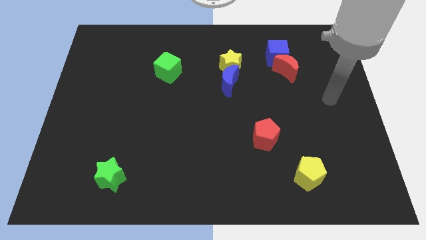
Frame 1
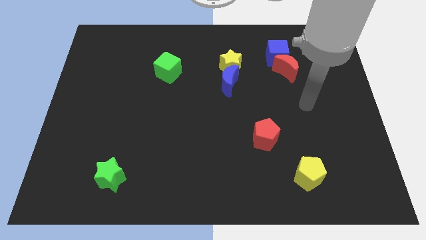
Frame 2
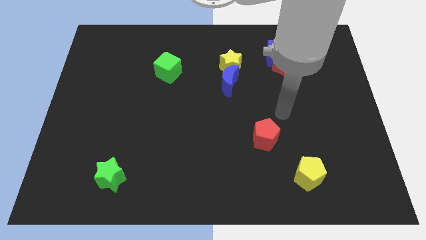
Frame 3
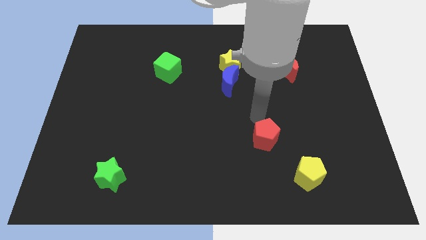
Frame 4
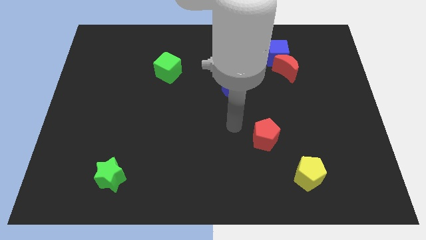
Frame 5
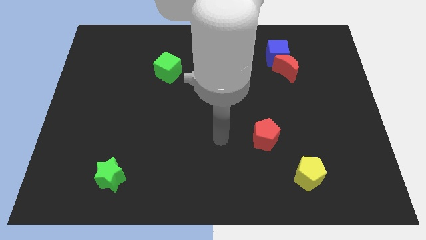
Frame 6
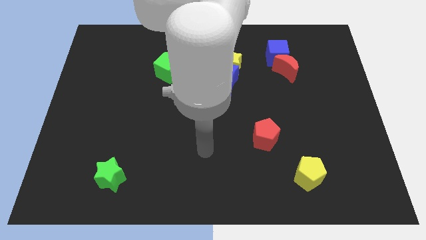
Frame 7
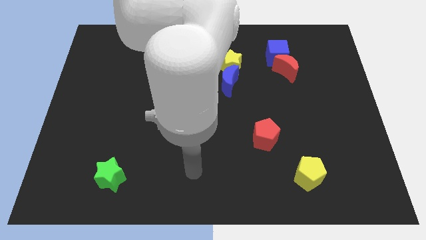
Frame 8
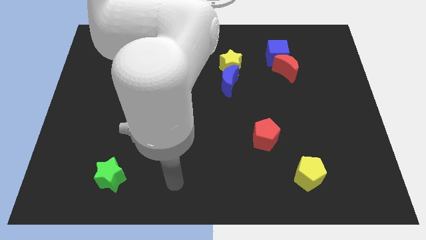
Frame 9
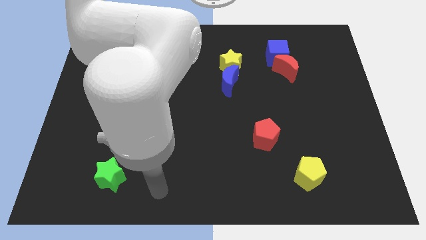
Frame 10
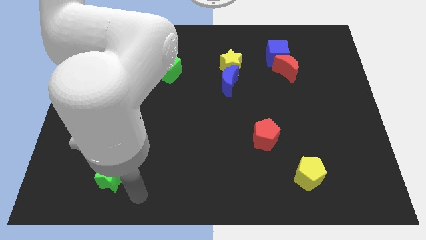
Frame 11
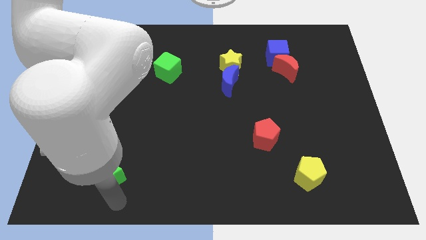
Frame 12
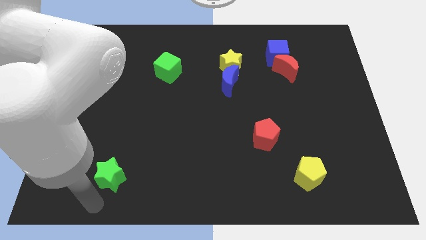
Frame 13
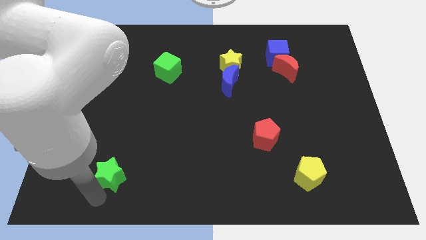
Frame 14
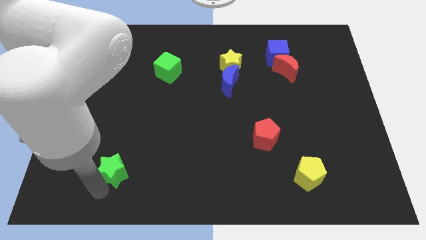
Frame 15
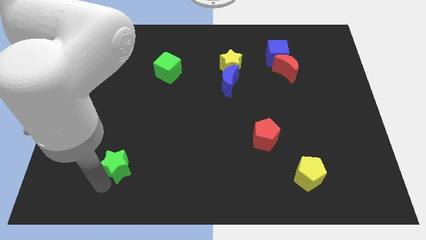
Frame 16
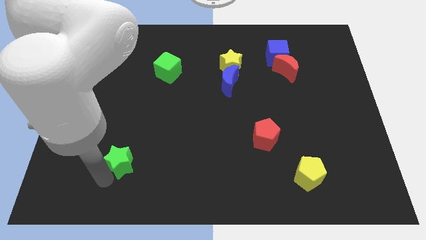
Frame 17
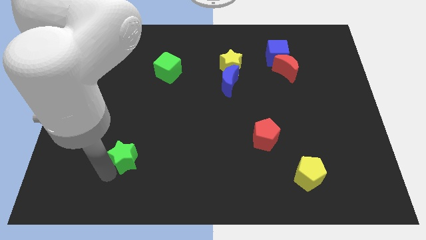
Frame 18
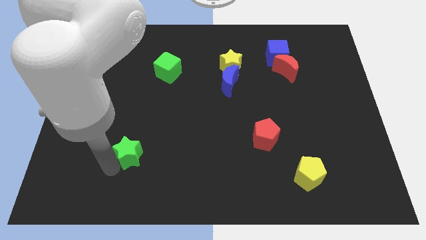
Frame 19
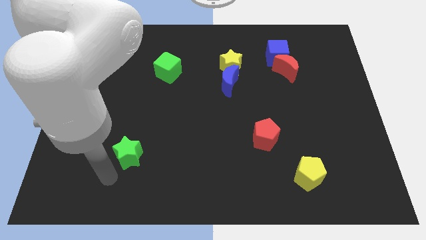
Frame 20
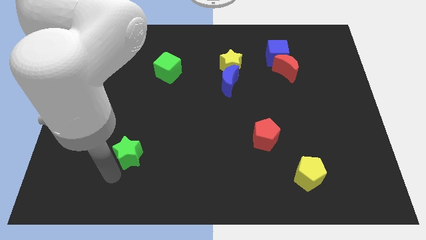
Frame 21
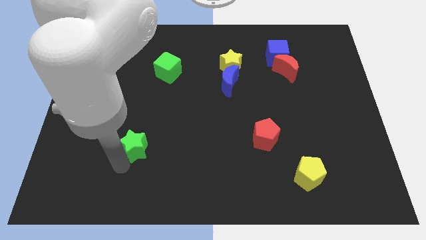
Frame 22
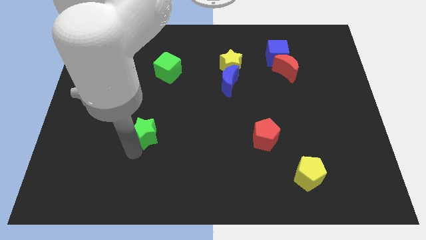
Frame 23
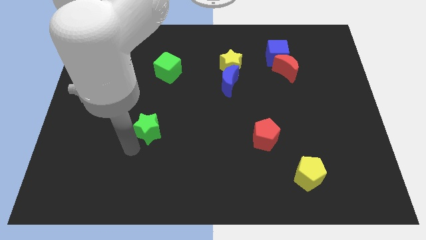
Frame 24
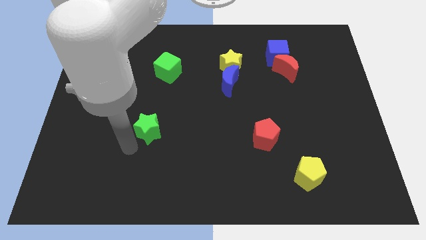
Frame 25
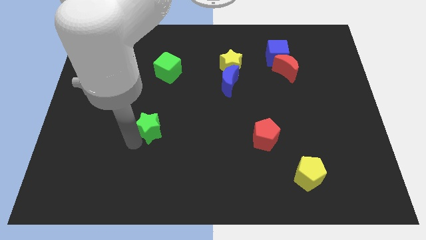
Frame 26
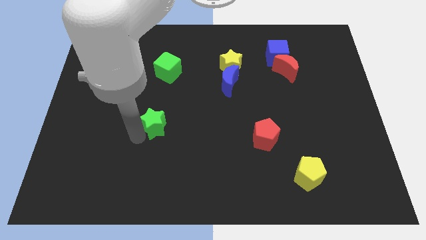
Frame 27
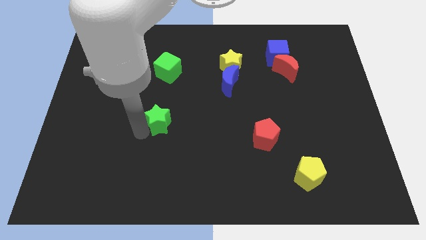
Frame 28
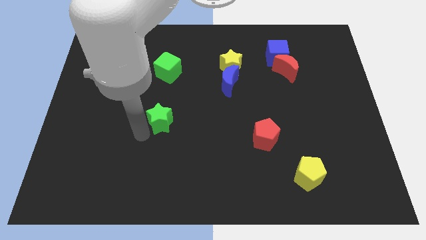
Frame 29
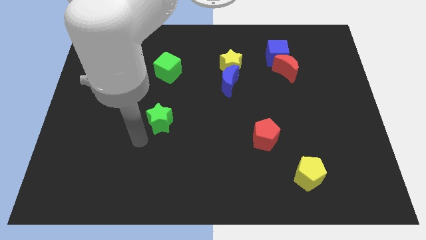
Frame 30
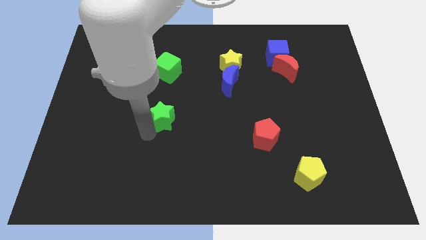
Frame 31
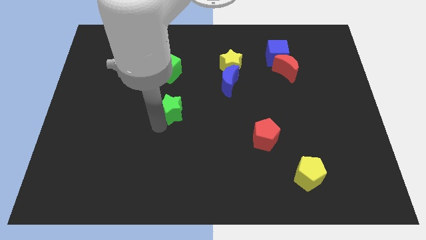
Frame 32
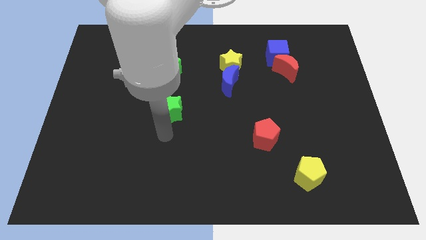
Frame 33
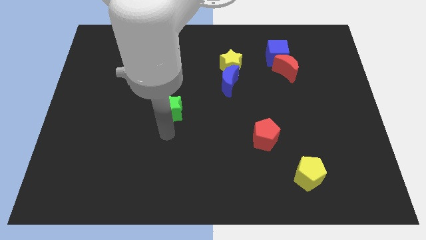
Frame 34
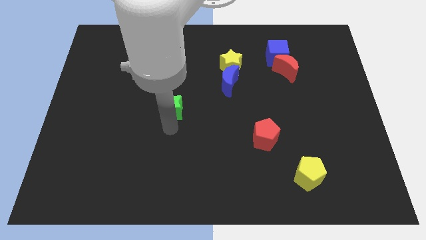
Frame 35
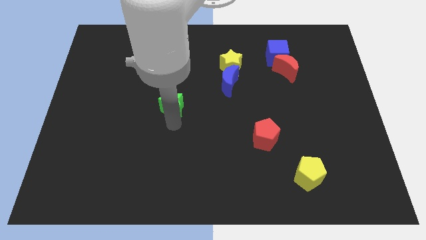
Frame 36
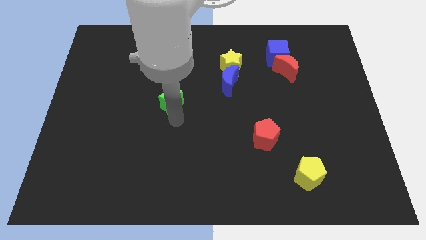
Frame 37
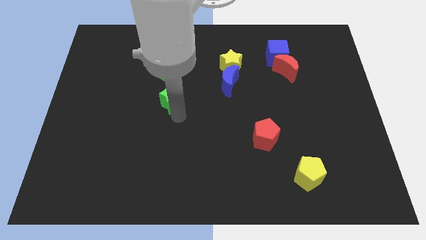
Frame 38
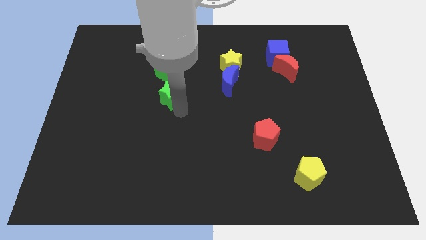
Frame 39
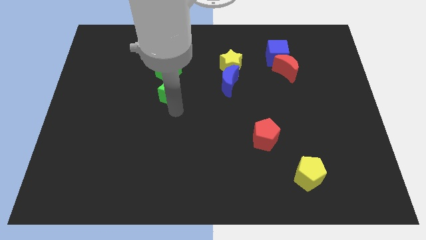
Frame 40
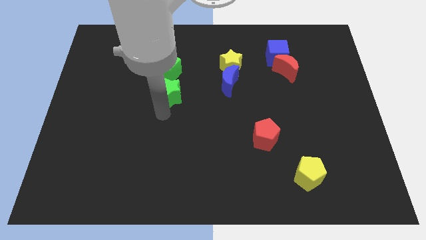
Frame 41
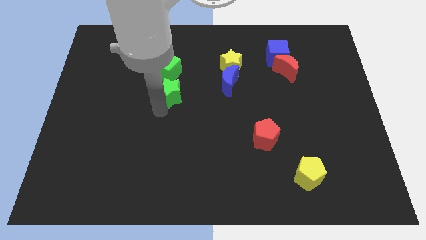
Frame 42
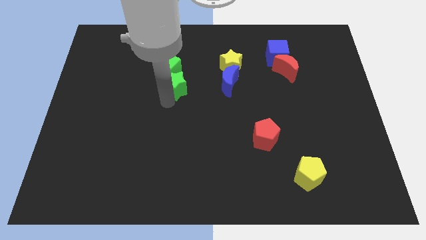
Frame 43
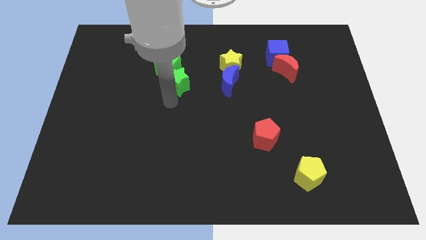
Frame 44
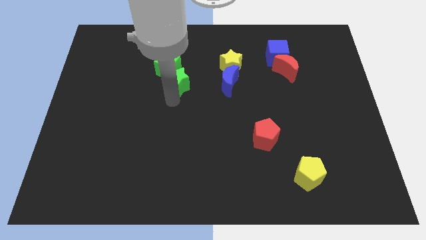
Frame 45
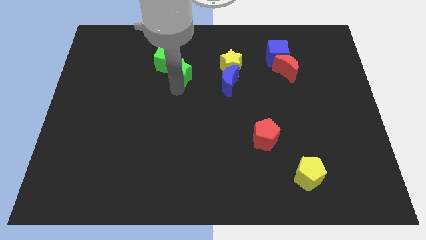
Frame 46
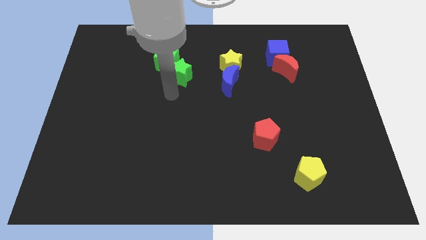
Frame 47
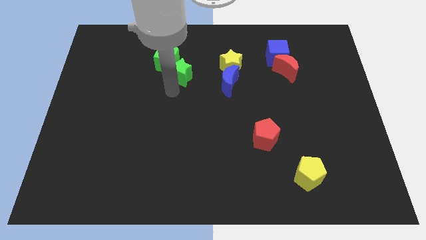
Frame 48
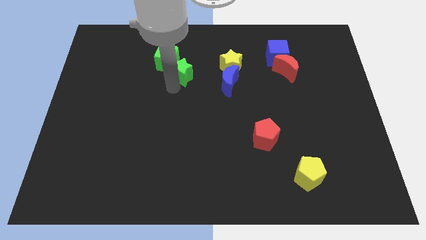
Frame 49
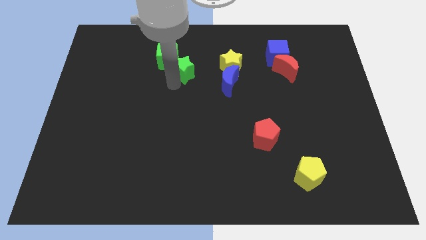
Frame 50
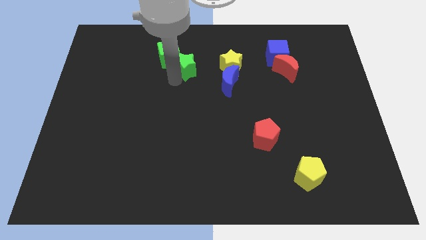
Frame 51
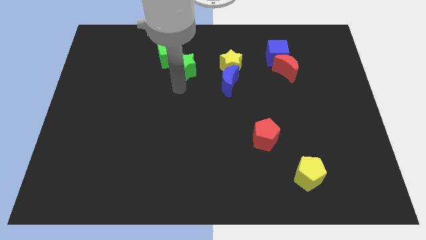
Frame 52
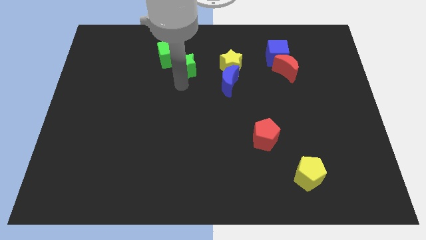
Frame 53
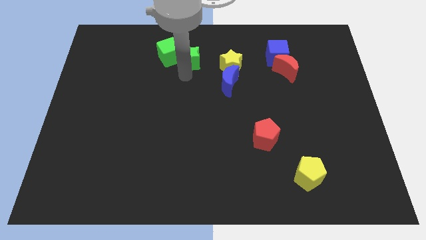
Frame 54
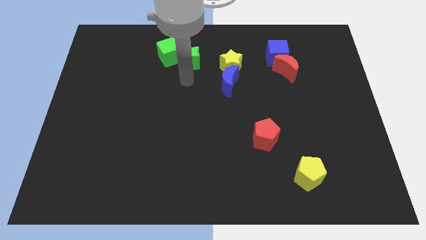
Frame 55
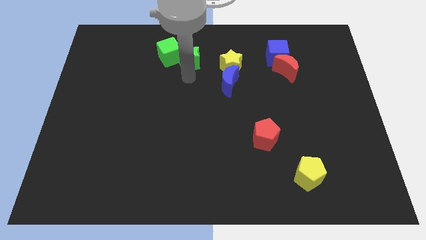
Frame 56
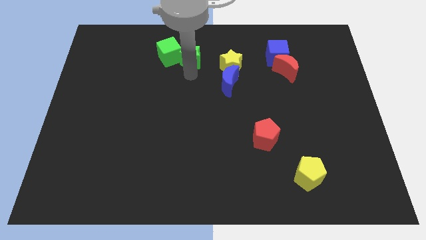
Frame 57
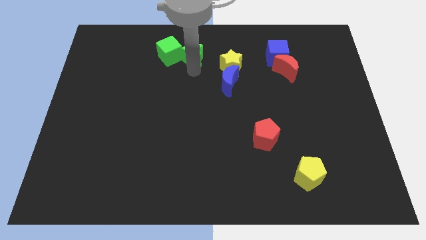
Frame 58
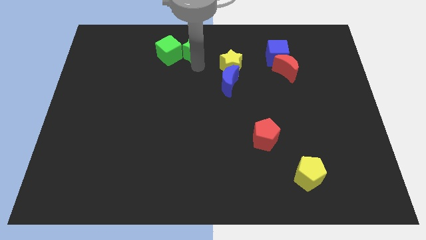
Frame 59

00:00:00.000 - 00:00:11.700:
move the green star to the top side
